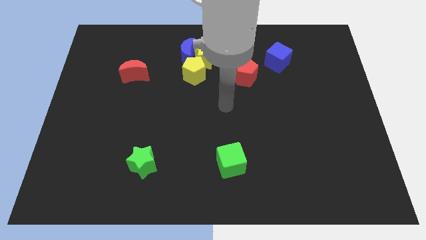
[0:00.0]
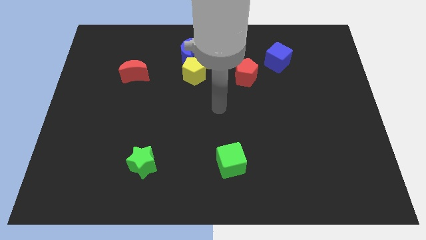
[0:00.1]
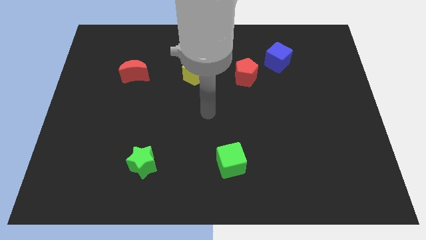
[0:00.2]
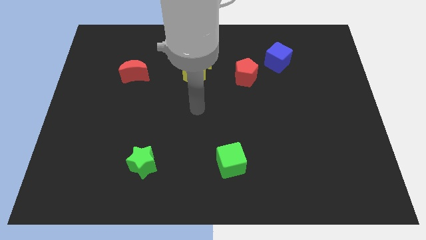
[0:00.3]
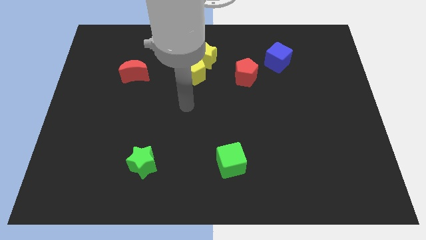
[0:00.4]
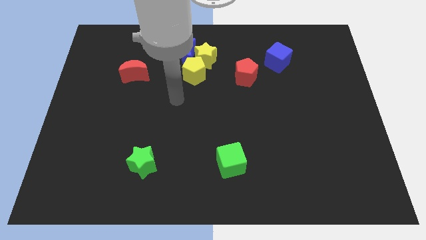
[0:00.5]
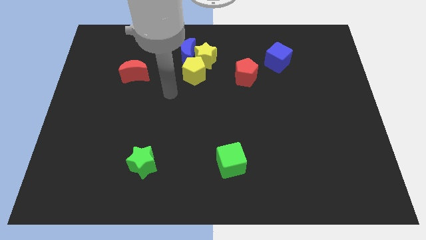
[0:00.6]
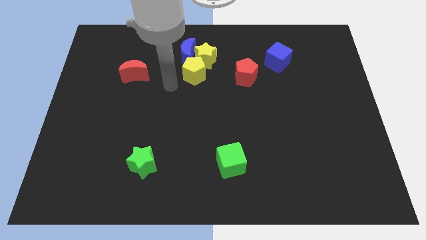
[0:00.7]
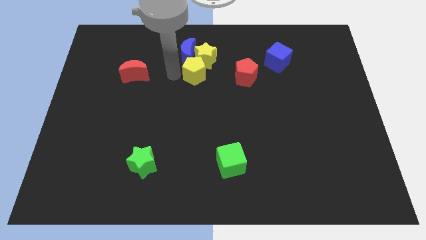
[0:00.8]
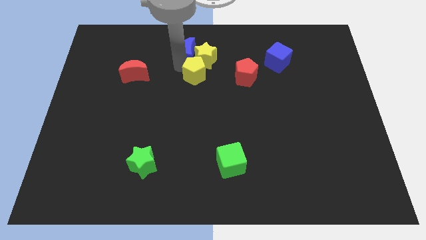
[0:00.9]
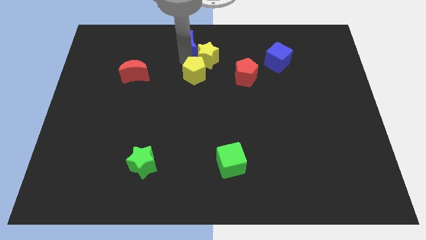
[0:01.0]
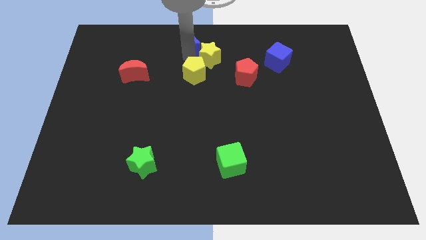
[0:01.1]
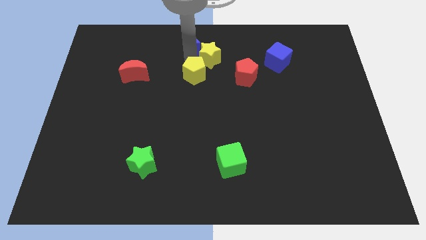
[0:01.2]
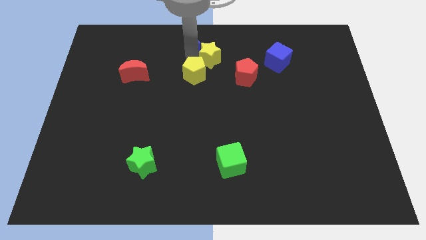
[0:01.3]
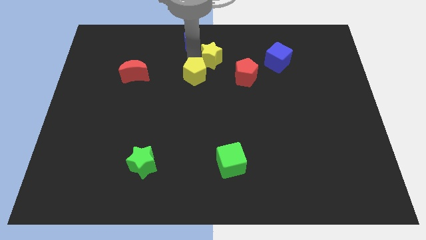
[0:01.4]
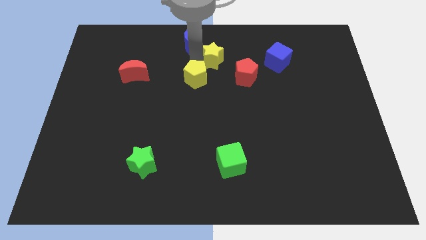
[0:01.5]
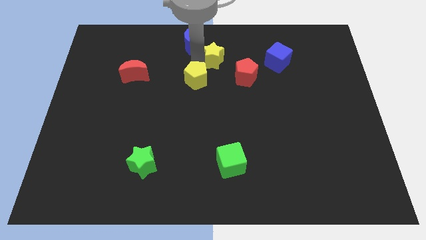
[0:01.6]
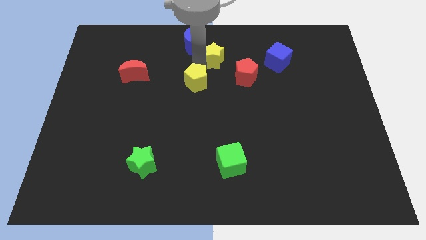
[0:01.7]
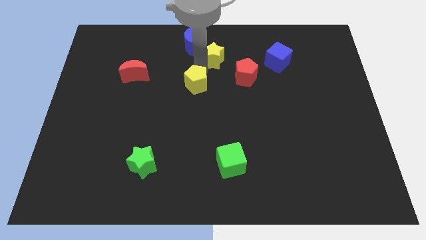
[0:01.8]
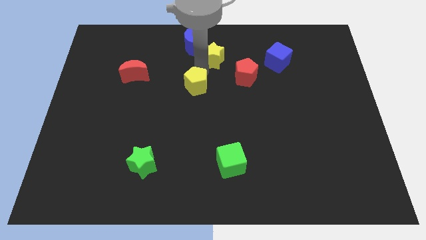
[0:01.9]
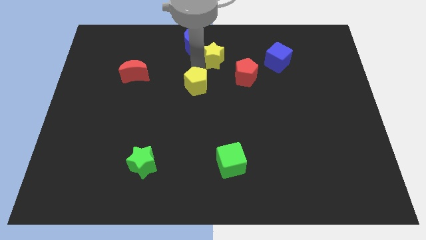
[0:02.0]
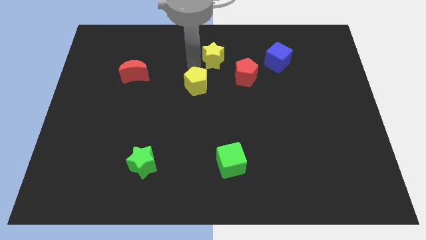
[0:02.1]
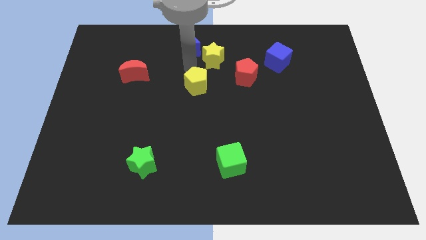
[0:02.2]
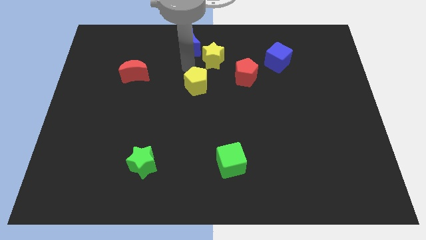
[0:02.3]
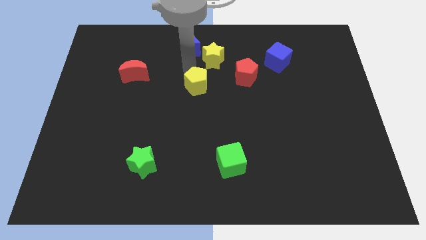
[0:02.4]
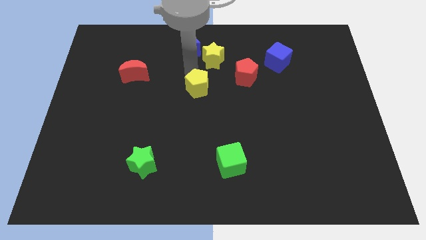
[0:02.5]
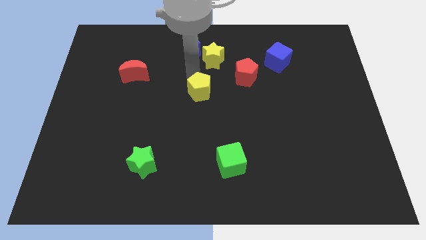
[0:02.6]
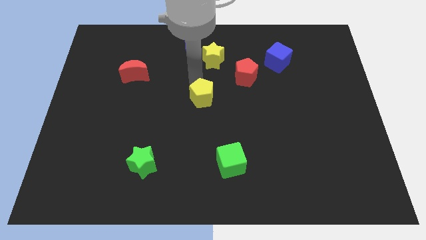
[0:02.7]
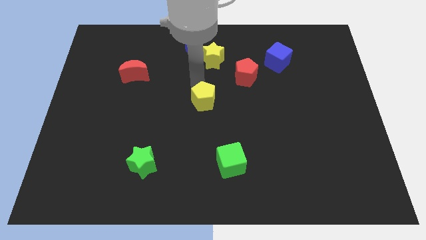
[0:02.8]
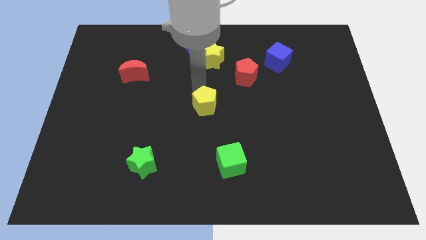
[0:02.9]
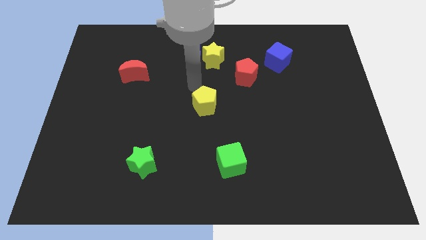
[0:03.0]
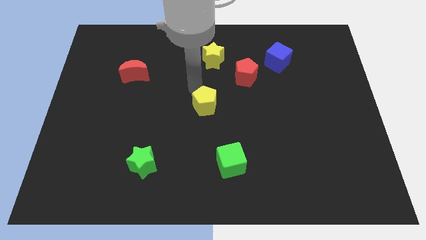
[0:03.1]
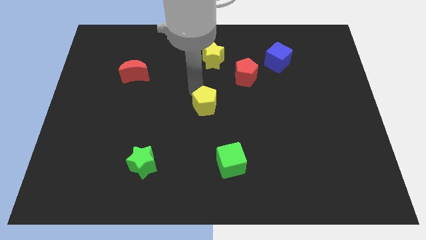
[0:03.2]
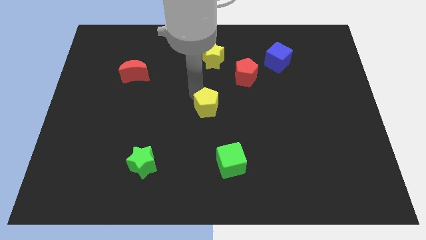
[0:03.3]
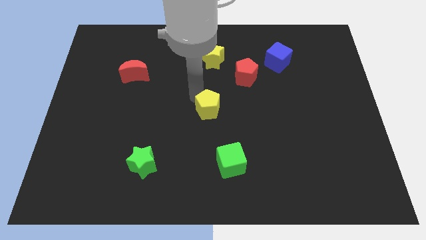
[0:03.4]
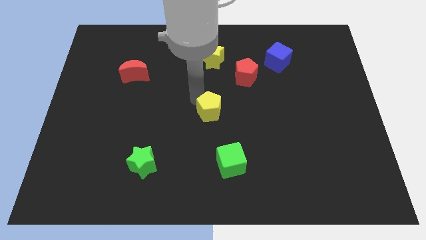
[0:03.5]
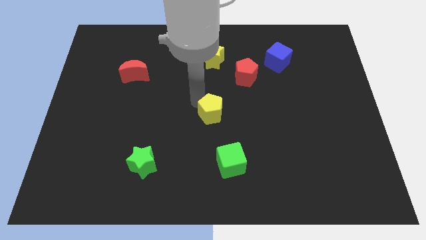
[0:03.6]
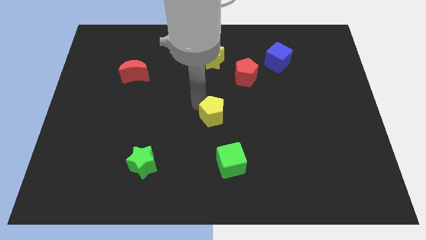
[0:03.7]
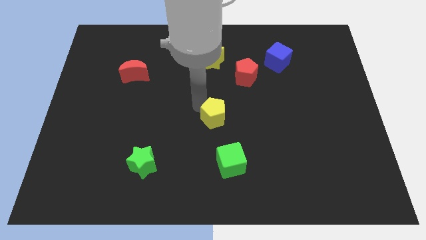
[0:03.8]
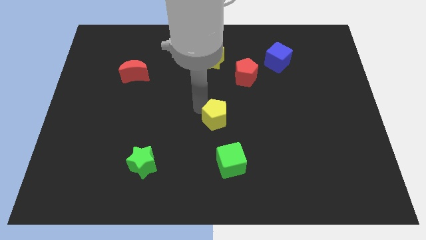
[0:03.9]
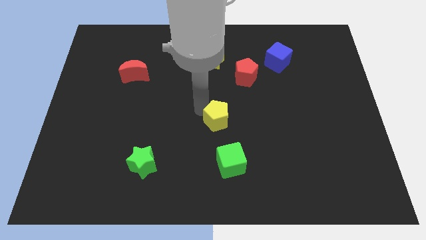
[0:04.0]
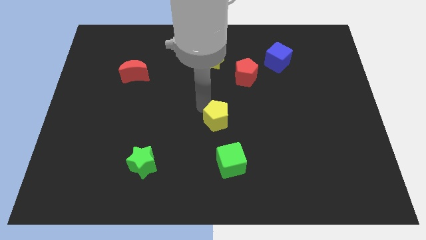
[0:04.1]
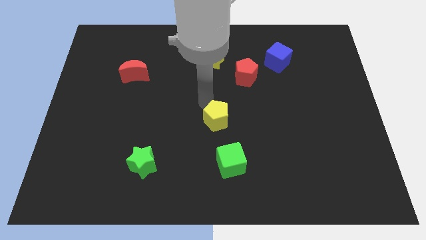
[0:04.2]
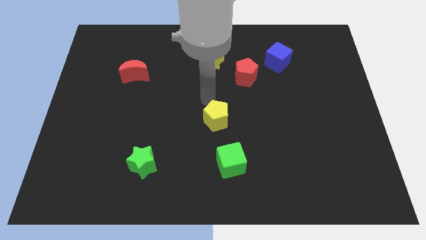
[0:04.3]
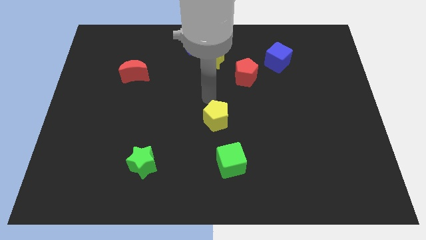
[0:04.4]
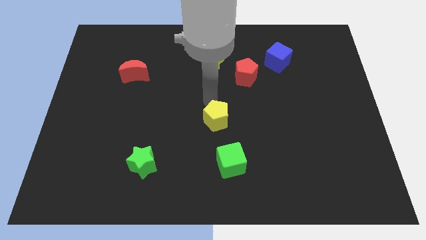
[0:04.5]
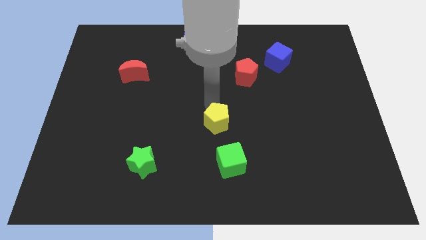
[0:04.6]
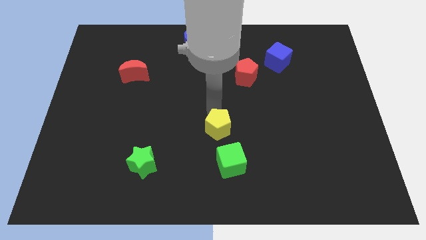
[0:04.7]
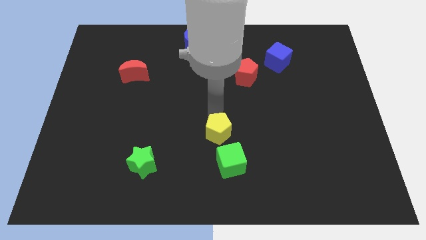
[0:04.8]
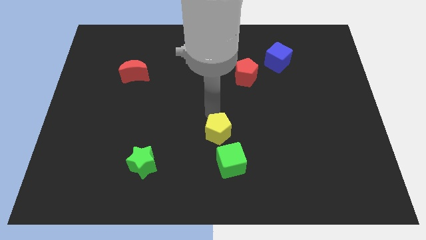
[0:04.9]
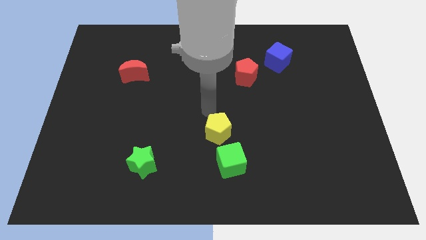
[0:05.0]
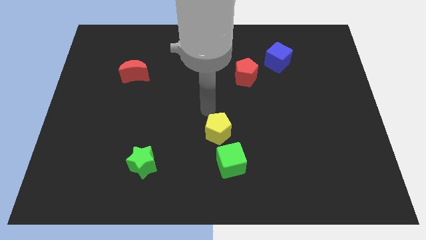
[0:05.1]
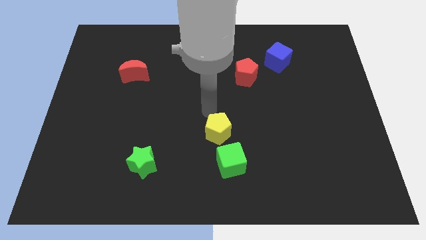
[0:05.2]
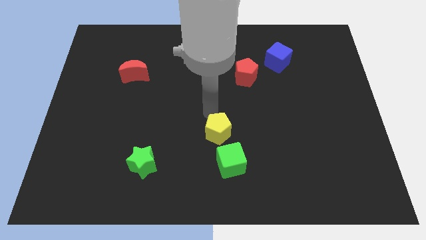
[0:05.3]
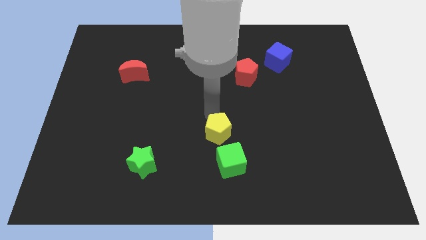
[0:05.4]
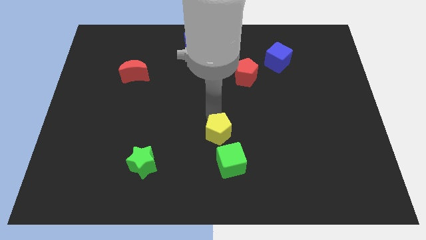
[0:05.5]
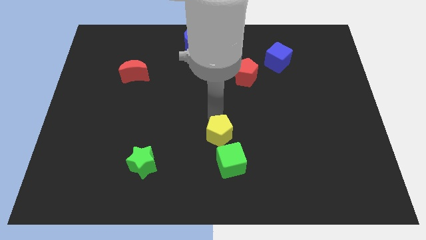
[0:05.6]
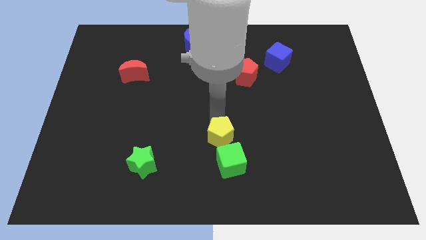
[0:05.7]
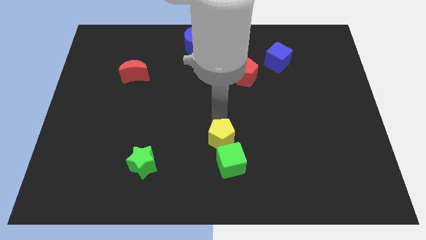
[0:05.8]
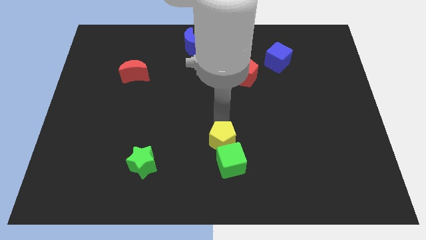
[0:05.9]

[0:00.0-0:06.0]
move the yellow pentagon next to the green cube

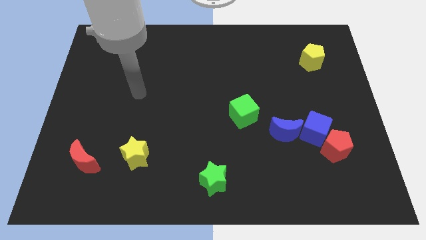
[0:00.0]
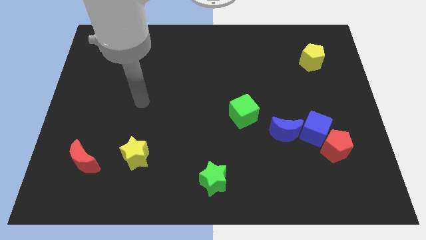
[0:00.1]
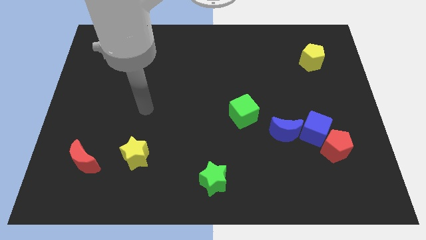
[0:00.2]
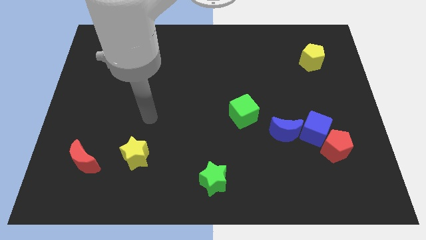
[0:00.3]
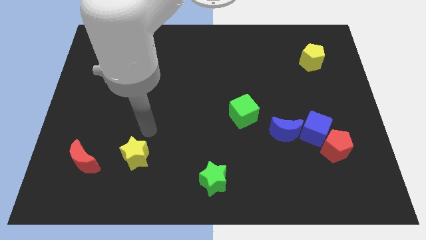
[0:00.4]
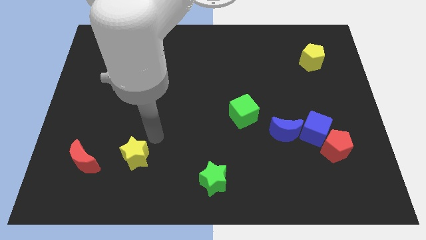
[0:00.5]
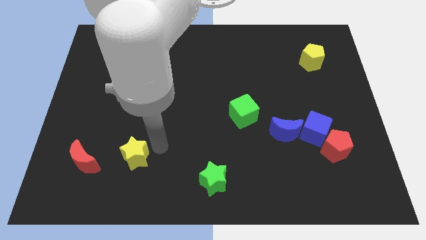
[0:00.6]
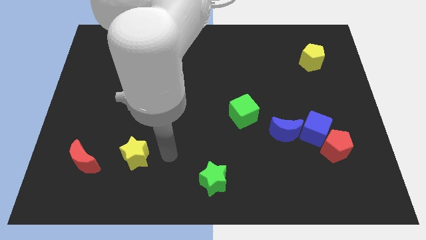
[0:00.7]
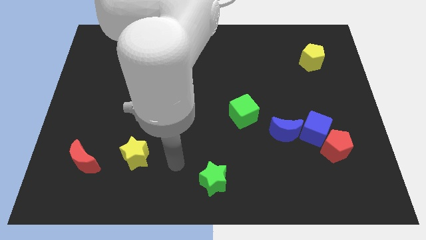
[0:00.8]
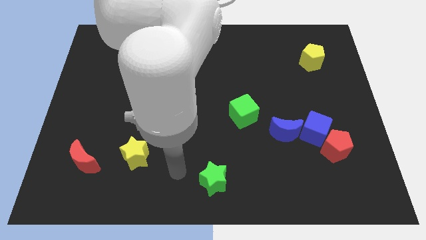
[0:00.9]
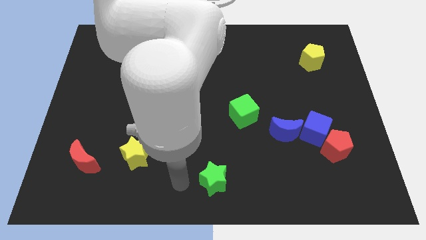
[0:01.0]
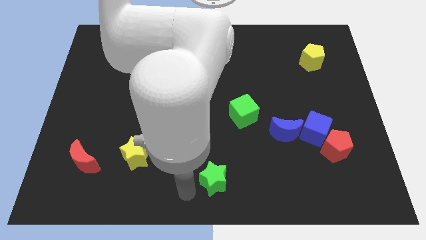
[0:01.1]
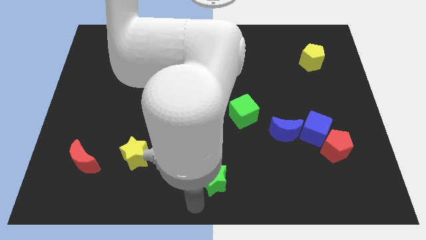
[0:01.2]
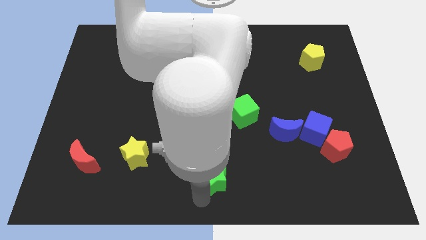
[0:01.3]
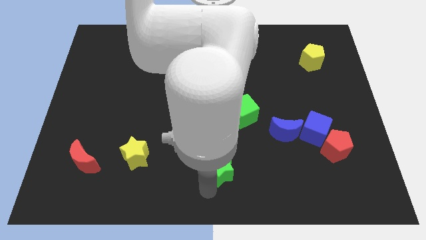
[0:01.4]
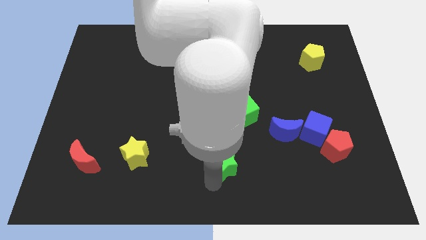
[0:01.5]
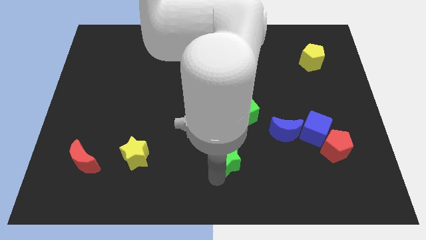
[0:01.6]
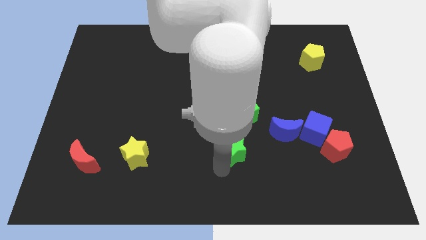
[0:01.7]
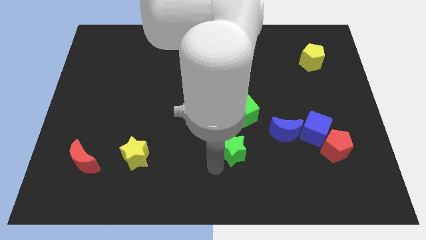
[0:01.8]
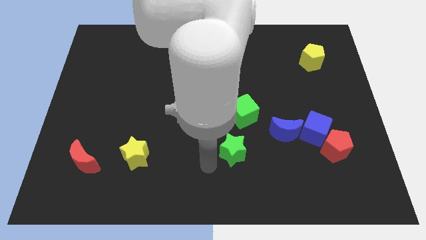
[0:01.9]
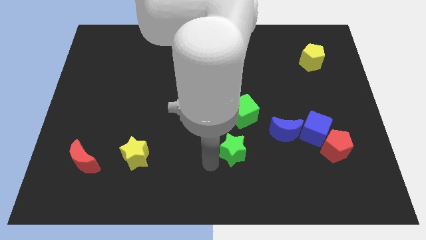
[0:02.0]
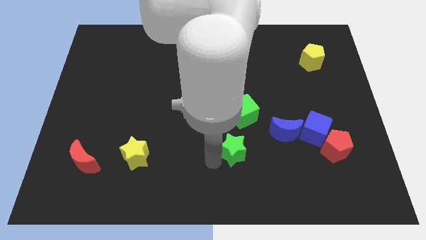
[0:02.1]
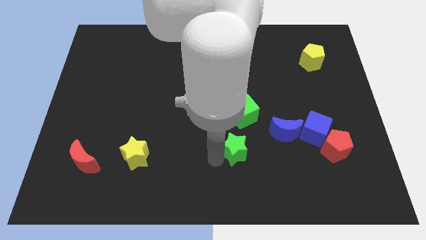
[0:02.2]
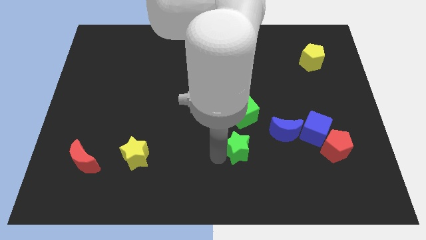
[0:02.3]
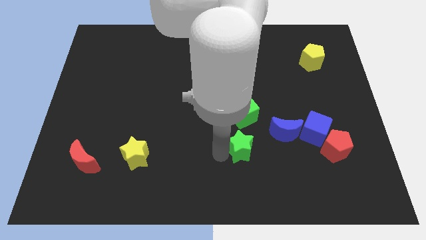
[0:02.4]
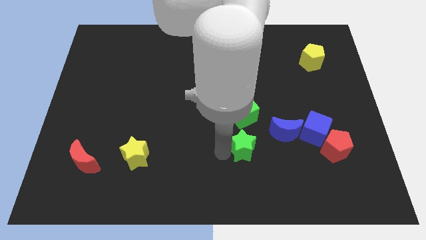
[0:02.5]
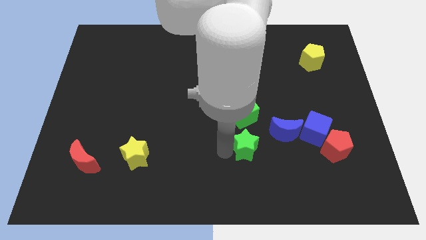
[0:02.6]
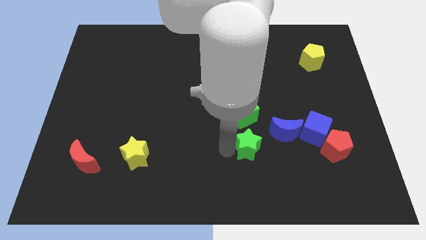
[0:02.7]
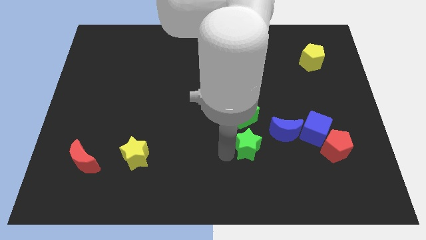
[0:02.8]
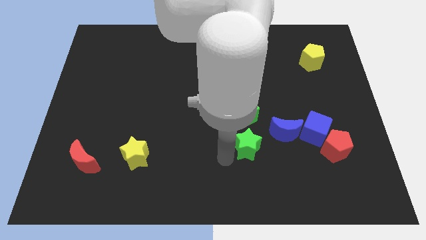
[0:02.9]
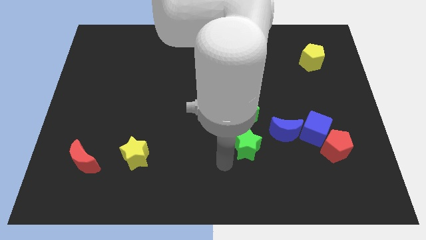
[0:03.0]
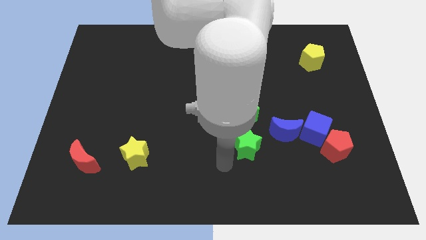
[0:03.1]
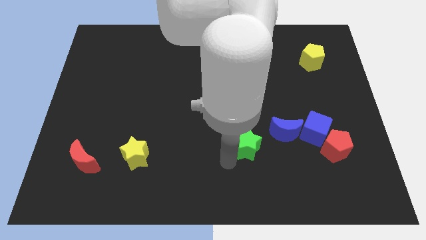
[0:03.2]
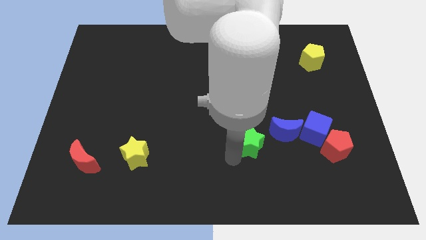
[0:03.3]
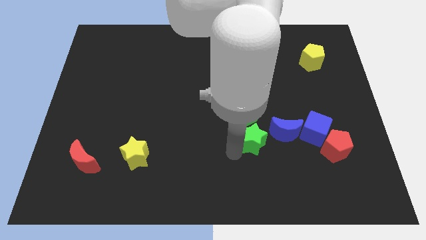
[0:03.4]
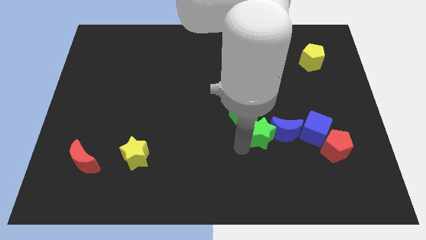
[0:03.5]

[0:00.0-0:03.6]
put the green star close to the blue moon
